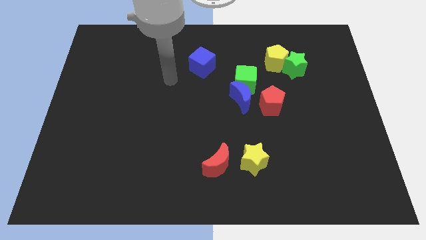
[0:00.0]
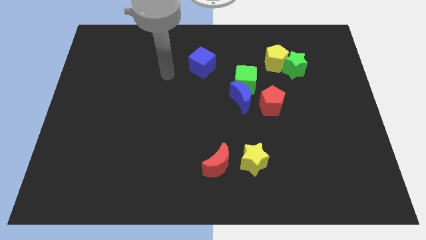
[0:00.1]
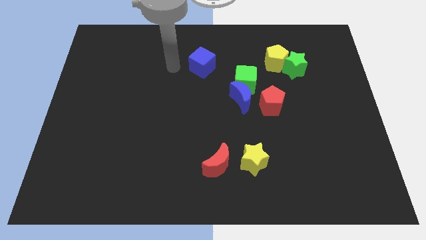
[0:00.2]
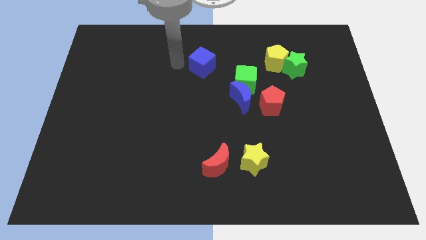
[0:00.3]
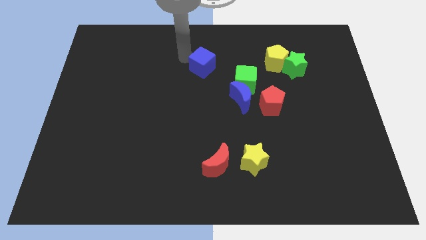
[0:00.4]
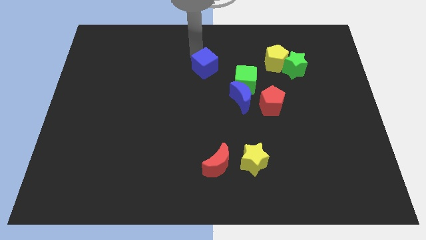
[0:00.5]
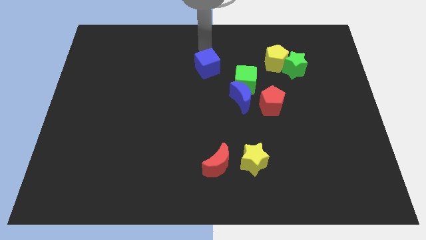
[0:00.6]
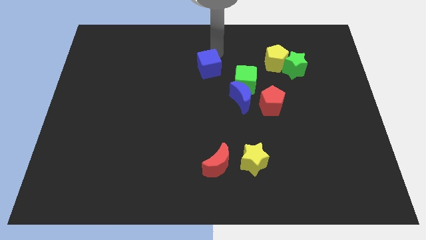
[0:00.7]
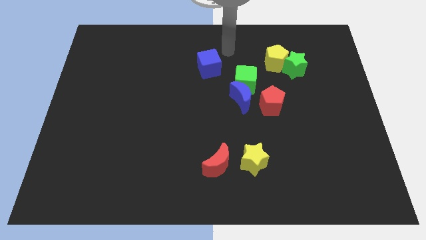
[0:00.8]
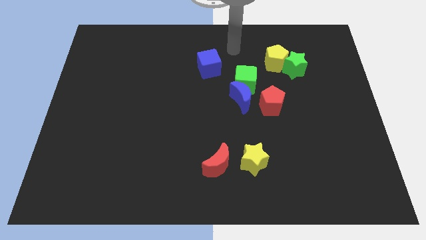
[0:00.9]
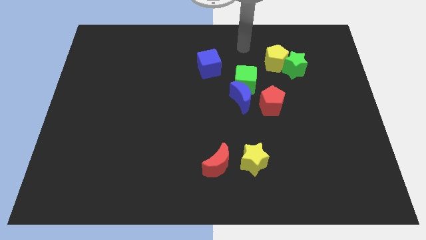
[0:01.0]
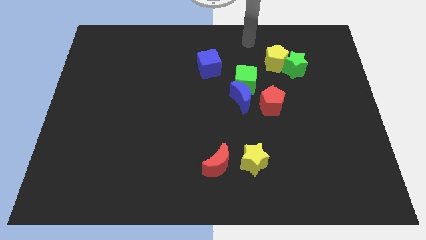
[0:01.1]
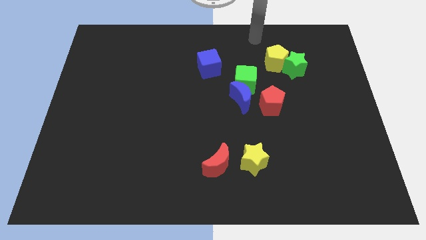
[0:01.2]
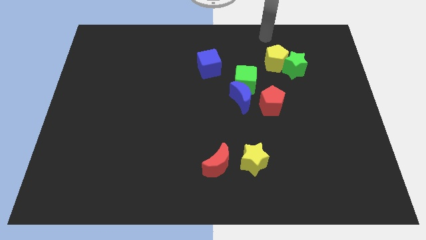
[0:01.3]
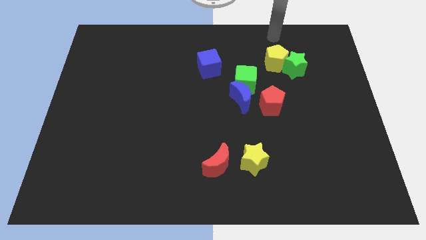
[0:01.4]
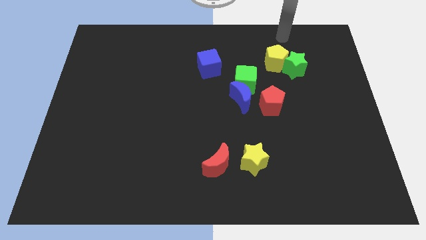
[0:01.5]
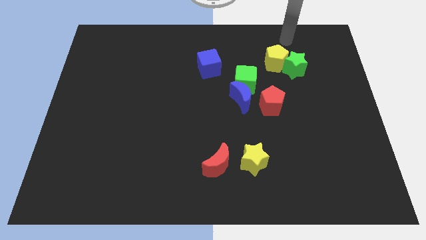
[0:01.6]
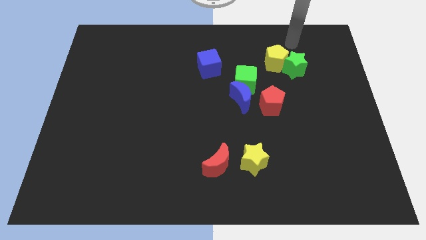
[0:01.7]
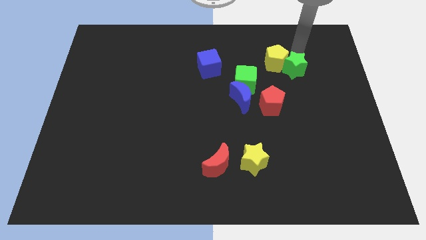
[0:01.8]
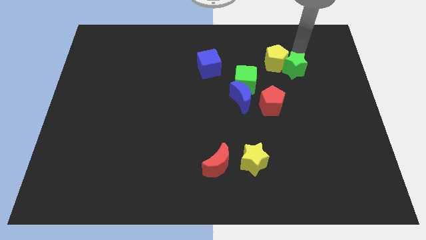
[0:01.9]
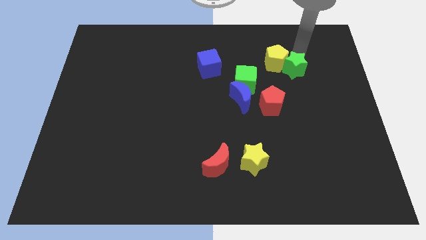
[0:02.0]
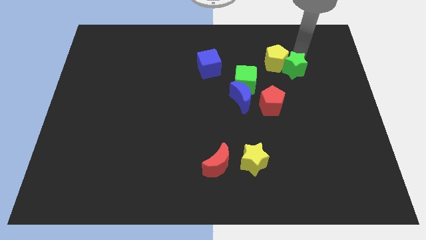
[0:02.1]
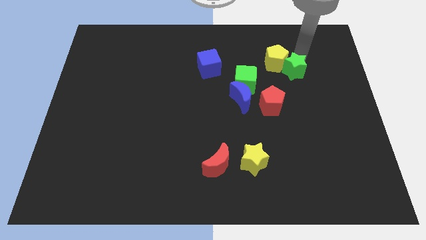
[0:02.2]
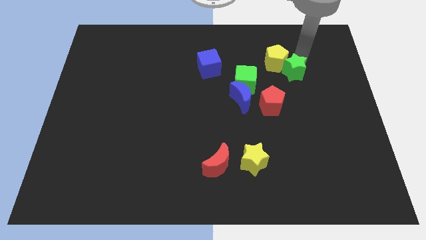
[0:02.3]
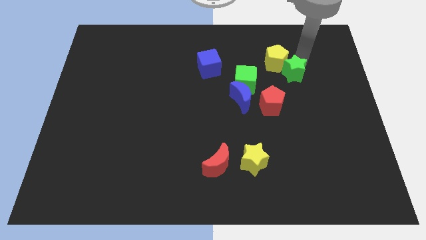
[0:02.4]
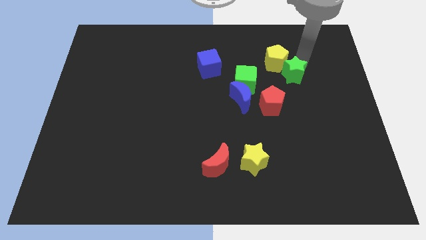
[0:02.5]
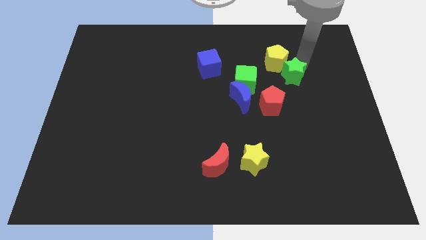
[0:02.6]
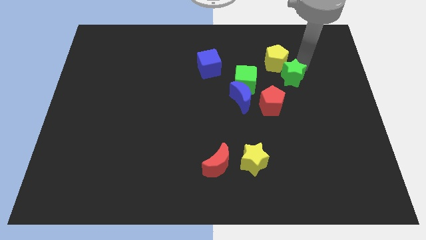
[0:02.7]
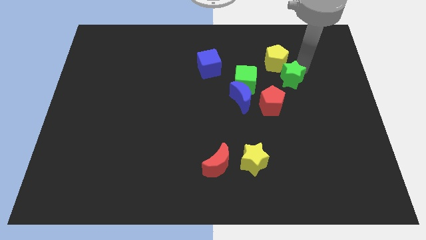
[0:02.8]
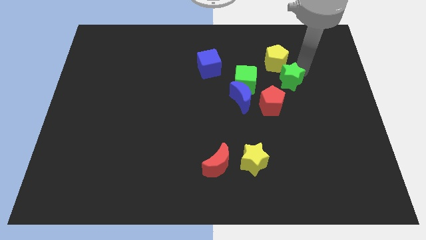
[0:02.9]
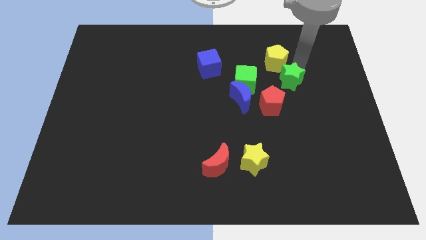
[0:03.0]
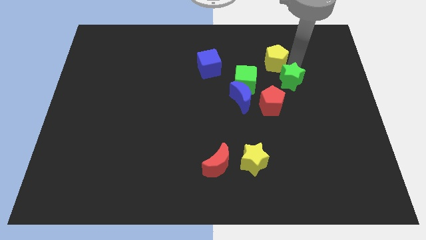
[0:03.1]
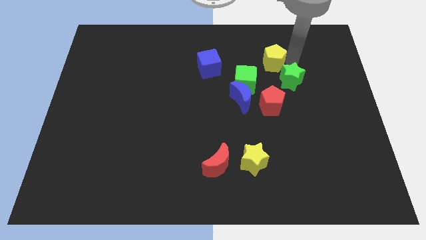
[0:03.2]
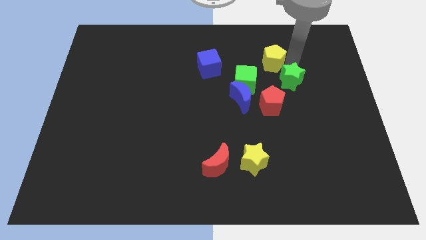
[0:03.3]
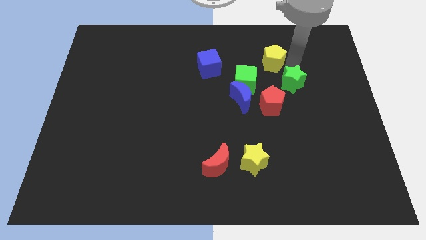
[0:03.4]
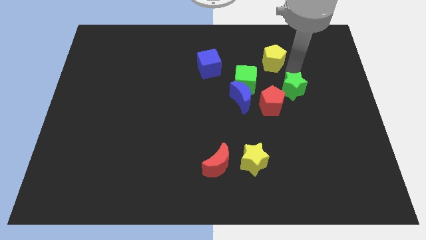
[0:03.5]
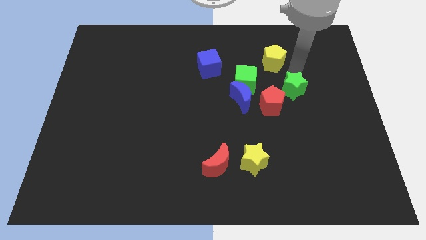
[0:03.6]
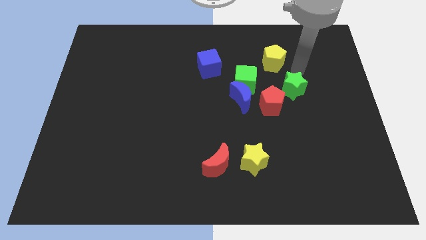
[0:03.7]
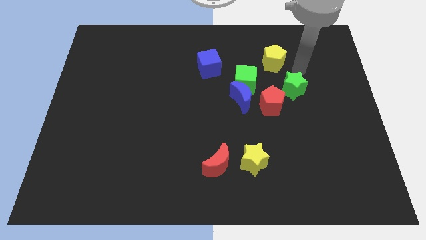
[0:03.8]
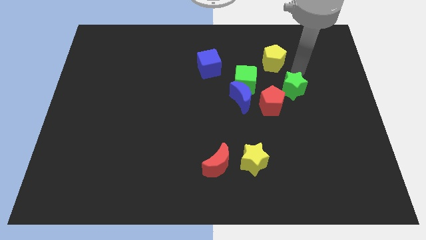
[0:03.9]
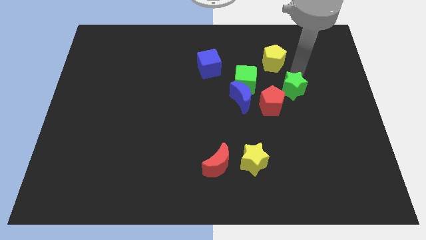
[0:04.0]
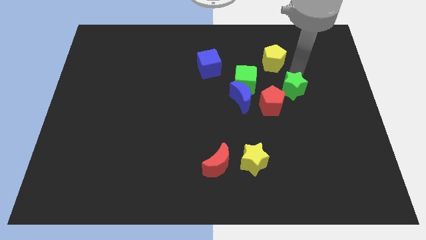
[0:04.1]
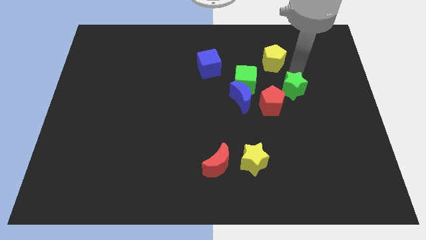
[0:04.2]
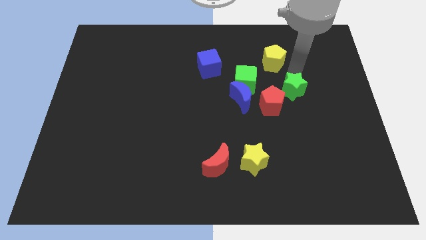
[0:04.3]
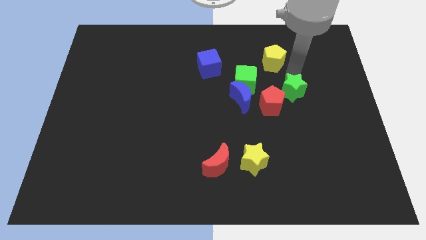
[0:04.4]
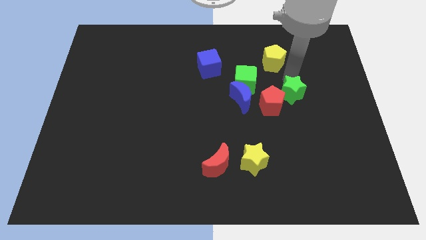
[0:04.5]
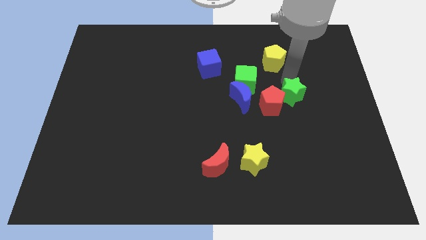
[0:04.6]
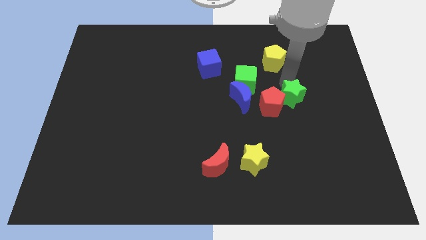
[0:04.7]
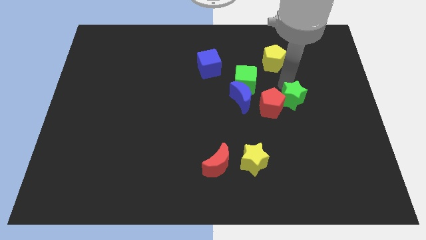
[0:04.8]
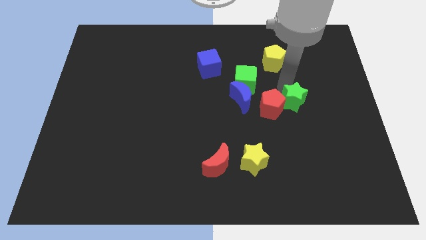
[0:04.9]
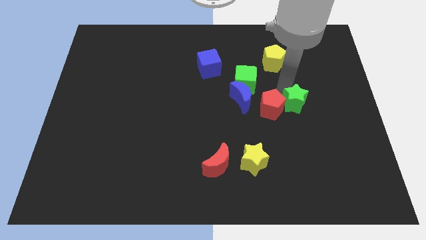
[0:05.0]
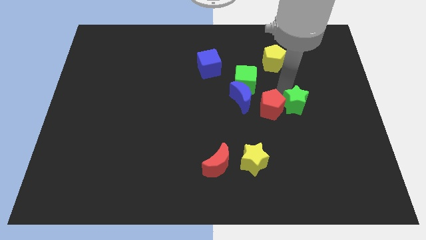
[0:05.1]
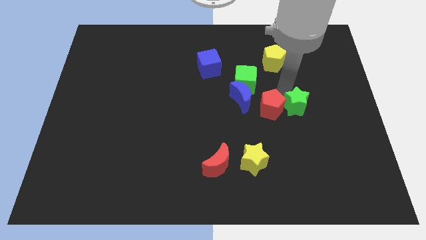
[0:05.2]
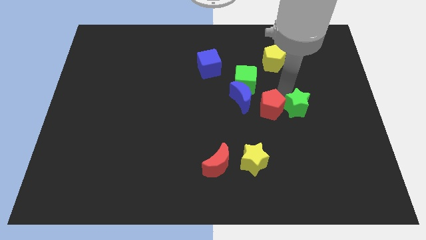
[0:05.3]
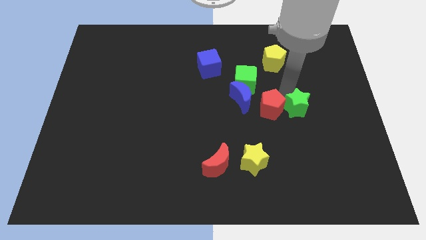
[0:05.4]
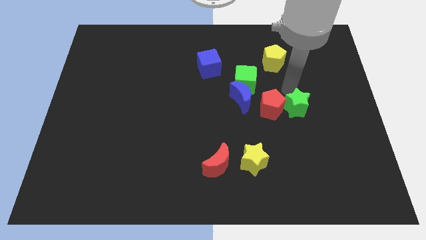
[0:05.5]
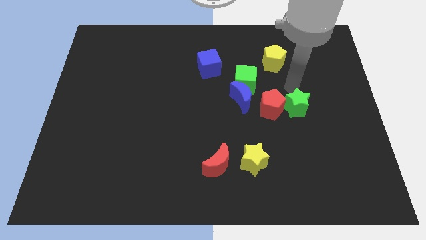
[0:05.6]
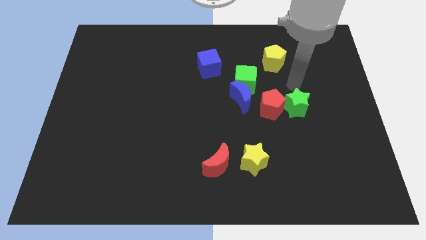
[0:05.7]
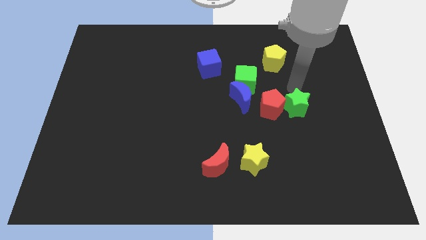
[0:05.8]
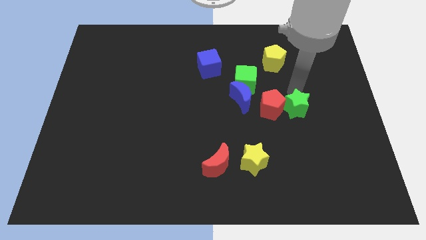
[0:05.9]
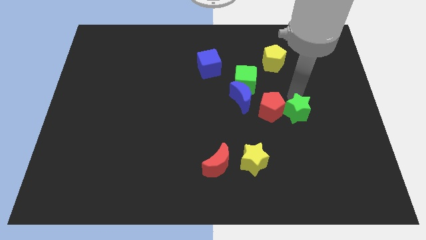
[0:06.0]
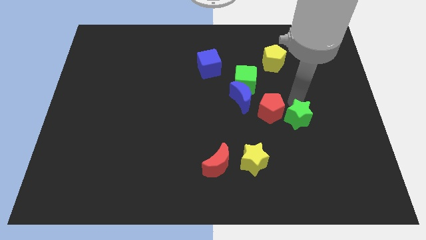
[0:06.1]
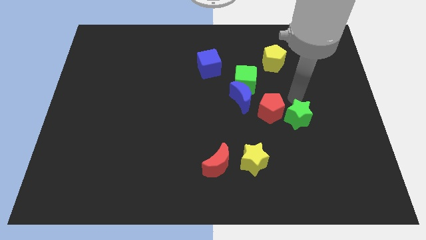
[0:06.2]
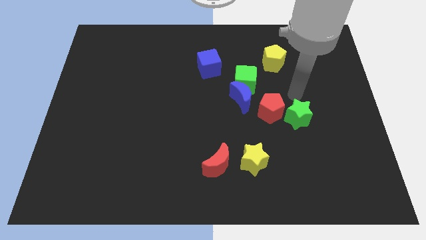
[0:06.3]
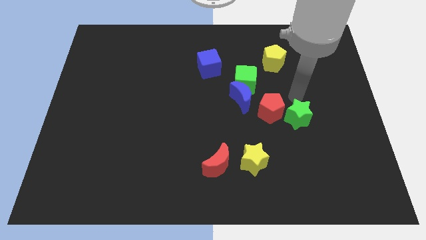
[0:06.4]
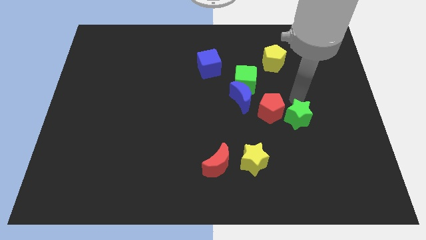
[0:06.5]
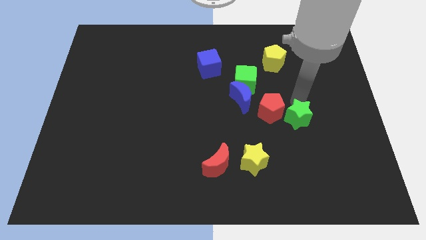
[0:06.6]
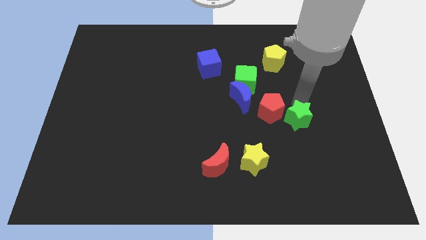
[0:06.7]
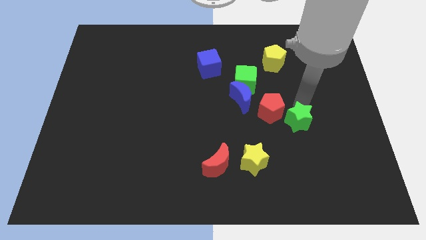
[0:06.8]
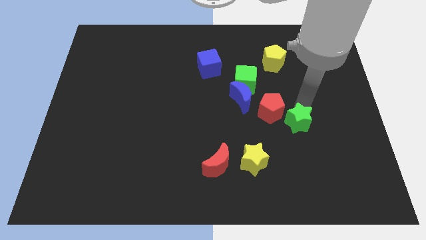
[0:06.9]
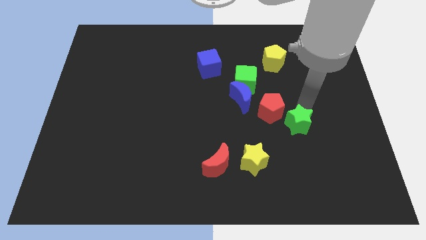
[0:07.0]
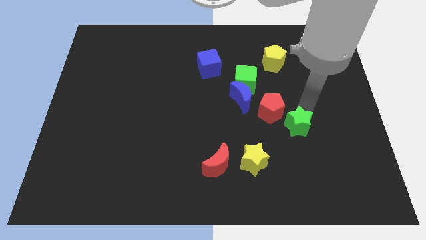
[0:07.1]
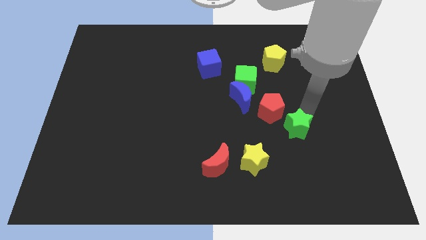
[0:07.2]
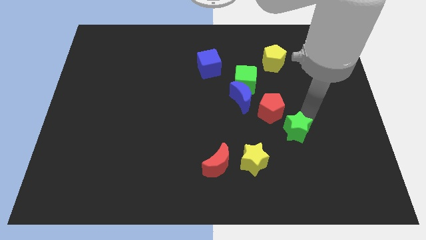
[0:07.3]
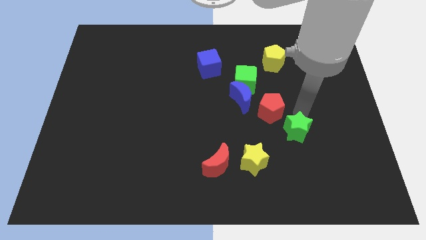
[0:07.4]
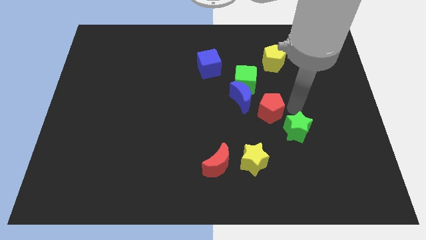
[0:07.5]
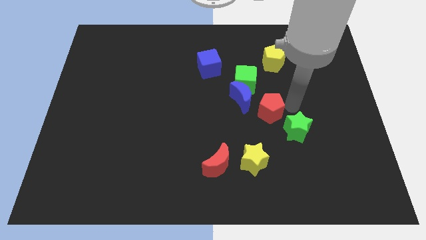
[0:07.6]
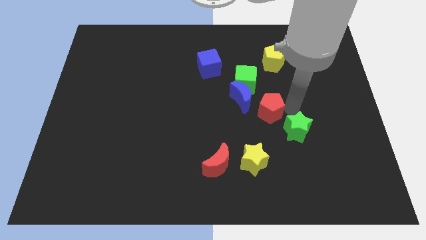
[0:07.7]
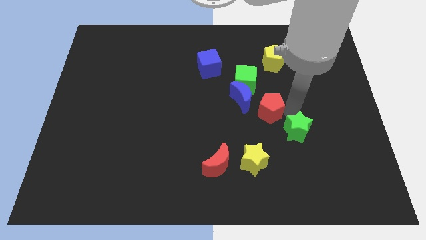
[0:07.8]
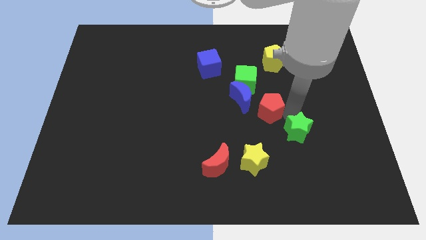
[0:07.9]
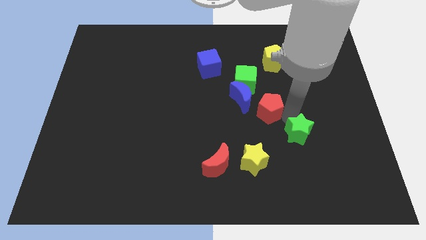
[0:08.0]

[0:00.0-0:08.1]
push the green star down
